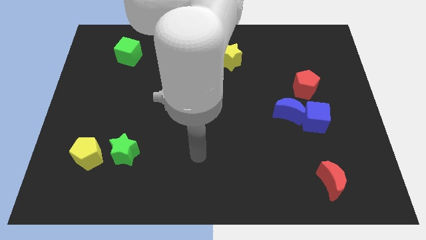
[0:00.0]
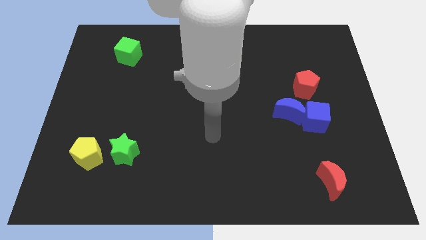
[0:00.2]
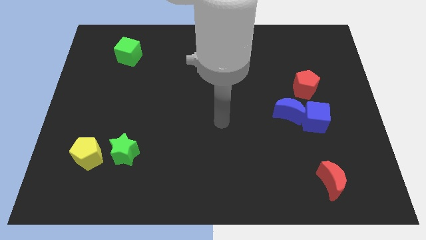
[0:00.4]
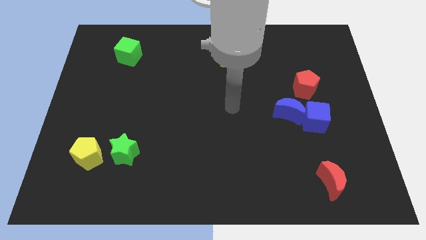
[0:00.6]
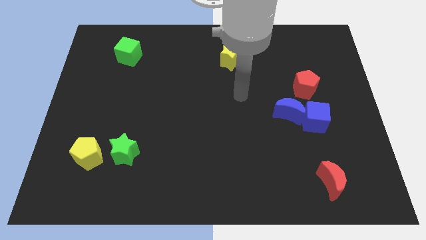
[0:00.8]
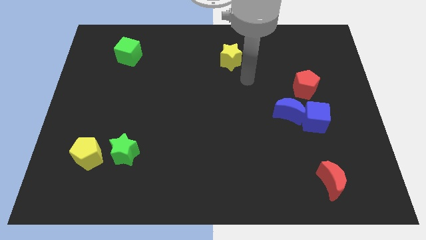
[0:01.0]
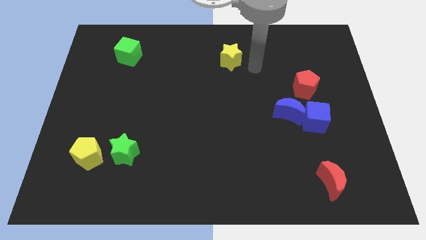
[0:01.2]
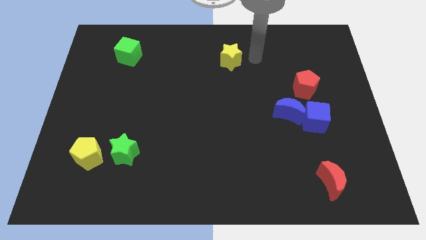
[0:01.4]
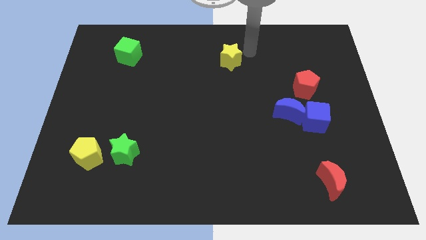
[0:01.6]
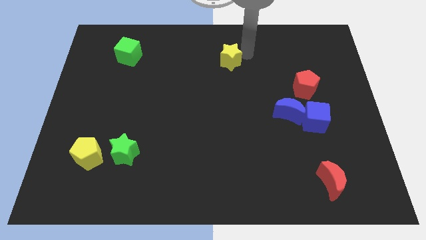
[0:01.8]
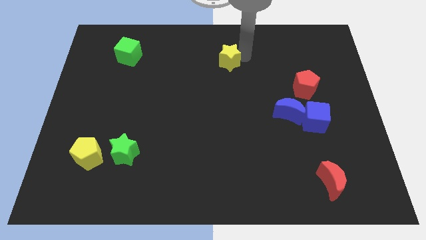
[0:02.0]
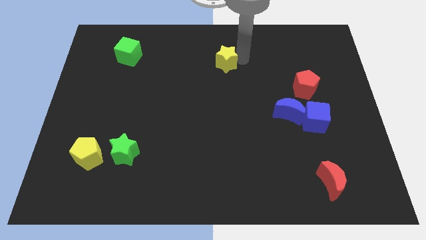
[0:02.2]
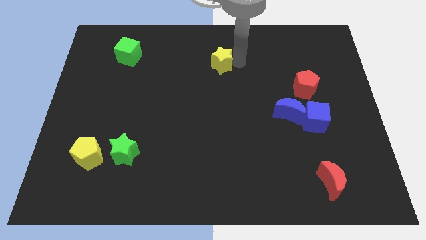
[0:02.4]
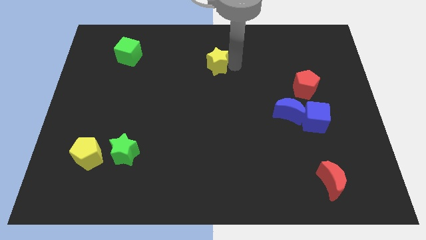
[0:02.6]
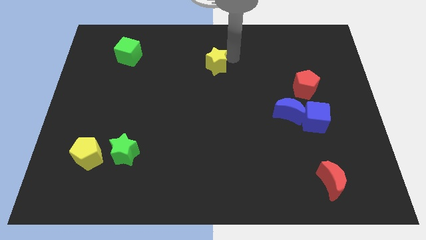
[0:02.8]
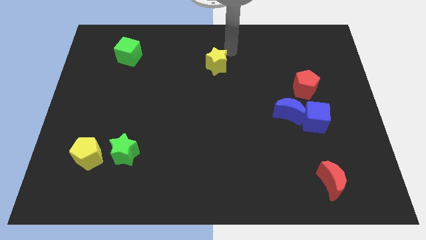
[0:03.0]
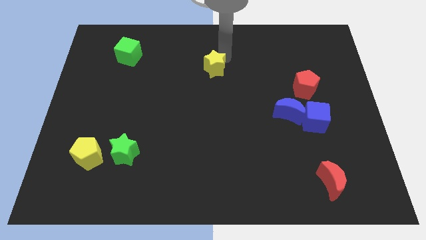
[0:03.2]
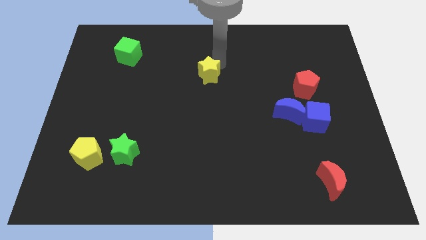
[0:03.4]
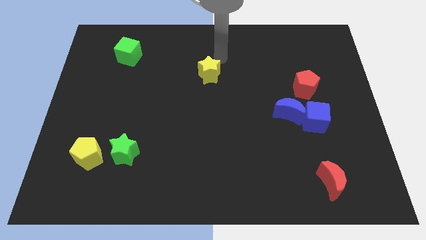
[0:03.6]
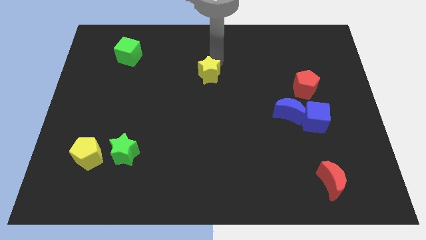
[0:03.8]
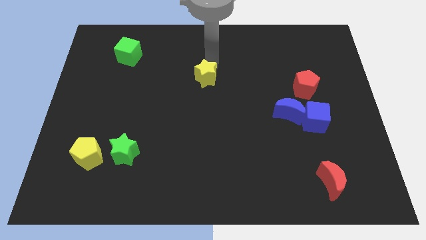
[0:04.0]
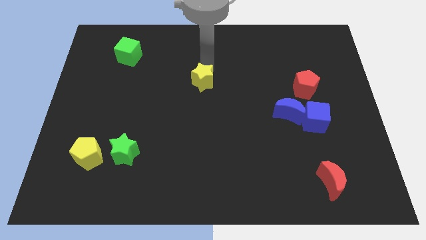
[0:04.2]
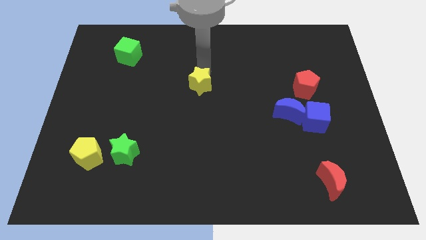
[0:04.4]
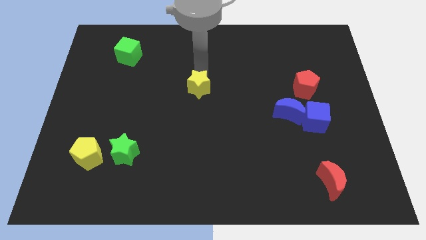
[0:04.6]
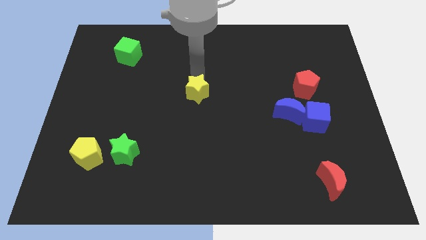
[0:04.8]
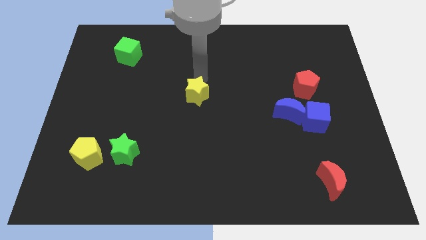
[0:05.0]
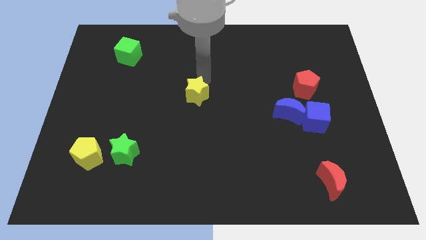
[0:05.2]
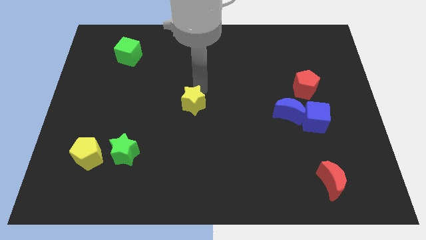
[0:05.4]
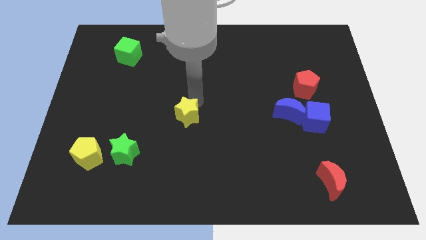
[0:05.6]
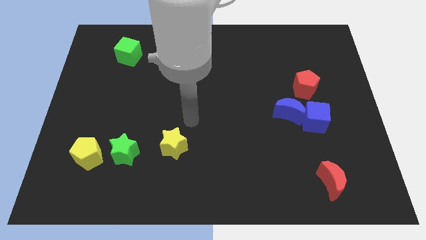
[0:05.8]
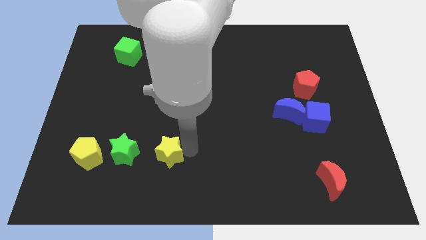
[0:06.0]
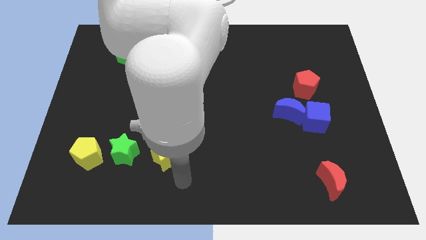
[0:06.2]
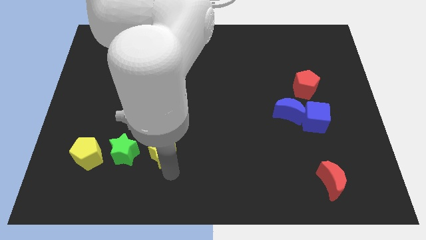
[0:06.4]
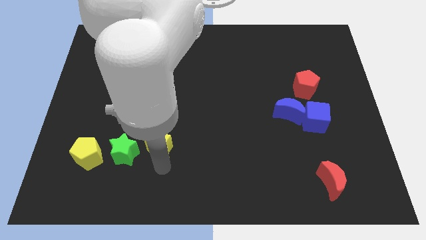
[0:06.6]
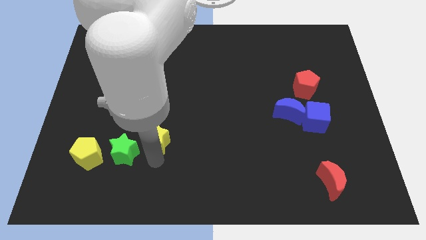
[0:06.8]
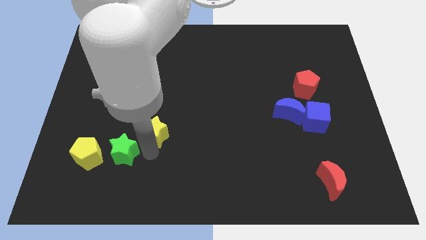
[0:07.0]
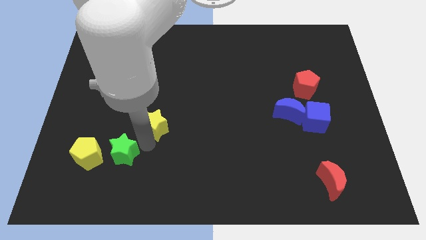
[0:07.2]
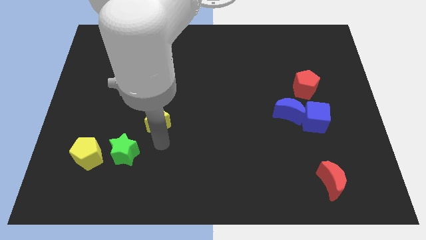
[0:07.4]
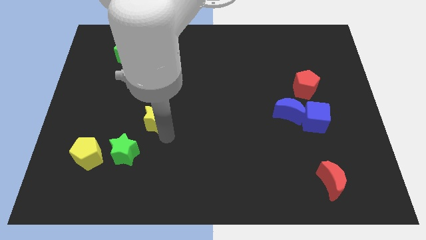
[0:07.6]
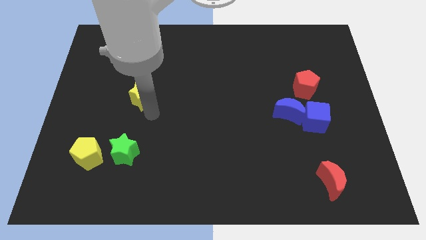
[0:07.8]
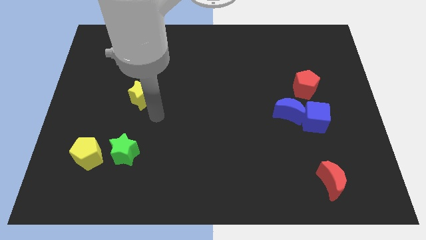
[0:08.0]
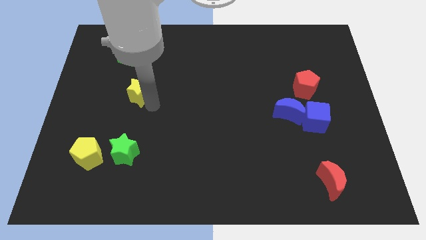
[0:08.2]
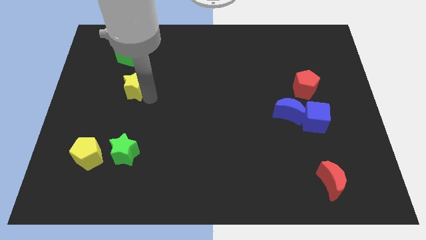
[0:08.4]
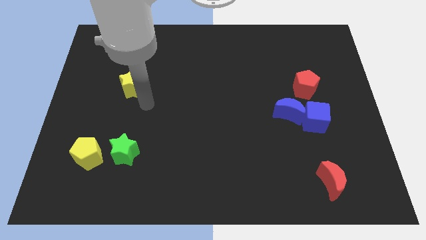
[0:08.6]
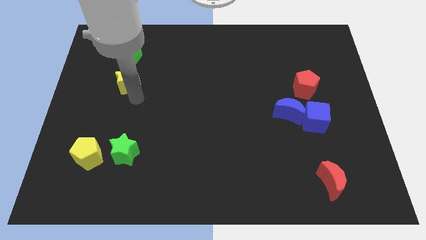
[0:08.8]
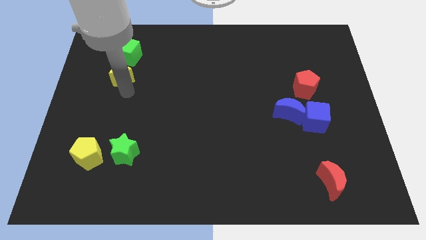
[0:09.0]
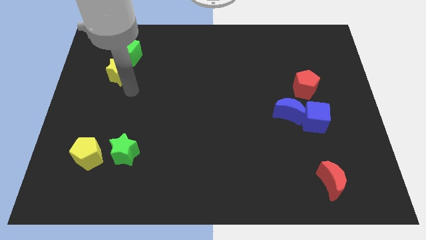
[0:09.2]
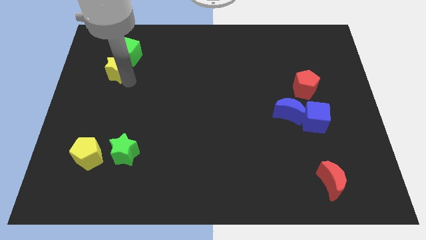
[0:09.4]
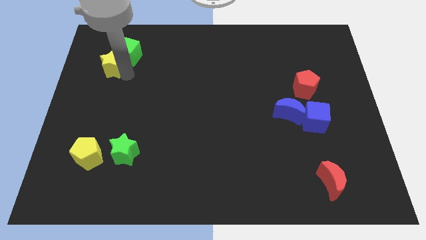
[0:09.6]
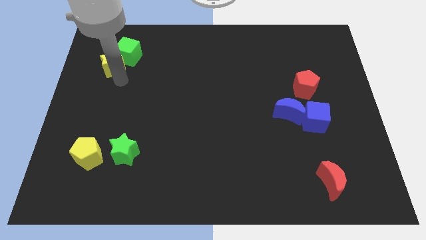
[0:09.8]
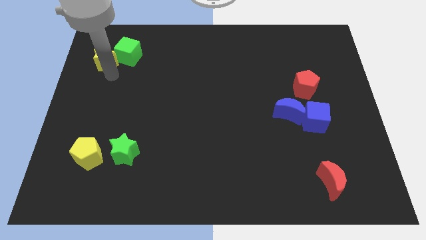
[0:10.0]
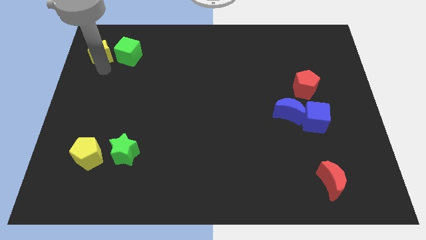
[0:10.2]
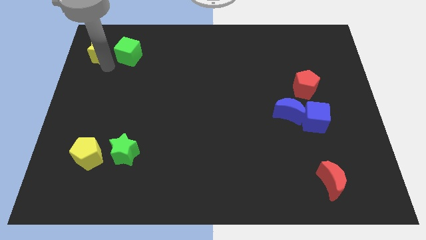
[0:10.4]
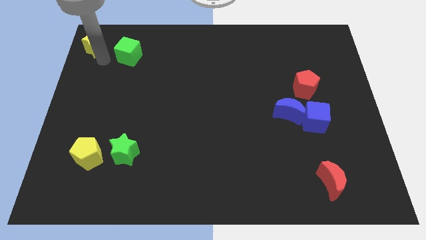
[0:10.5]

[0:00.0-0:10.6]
push the yellow star to the upper left corner

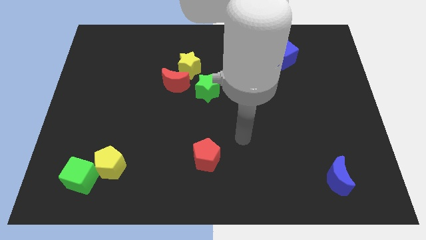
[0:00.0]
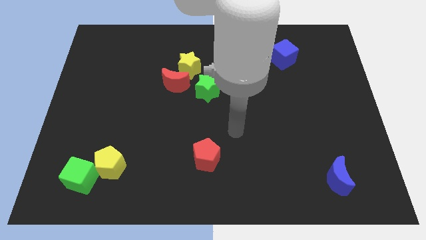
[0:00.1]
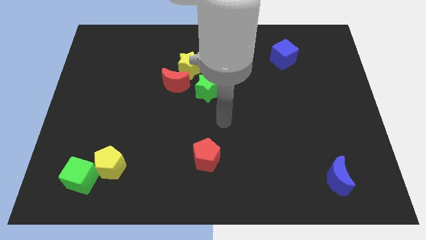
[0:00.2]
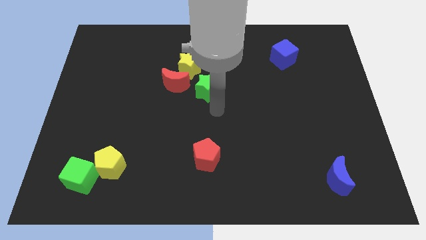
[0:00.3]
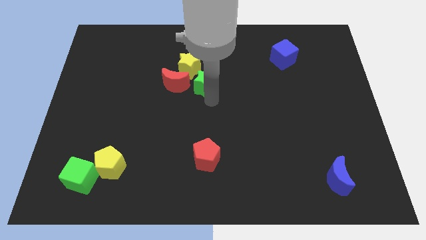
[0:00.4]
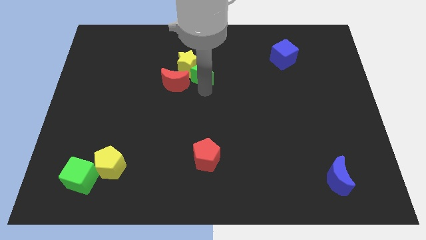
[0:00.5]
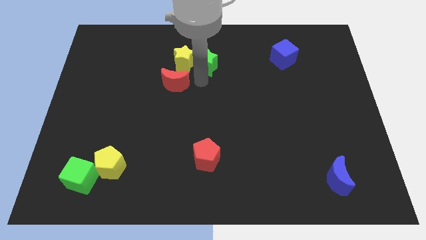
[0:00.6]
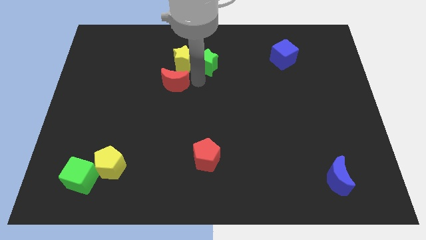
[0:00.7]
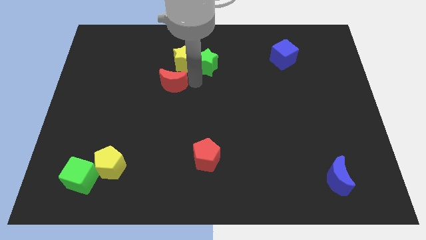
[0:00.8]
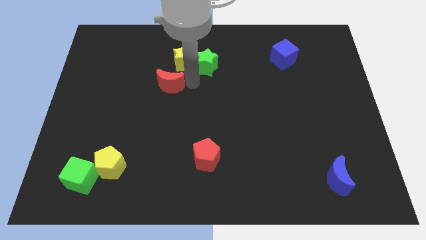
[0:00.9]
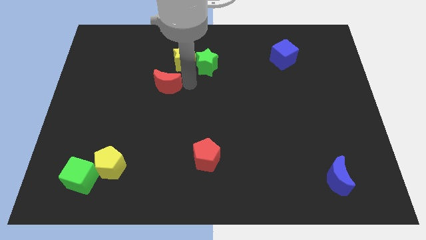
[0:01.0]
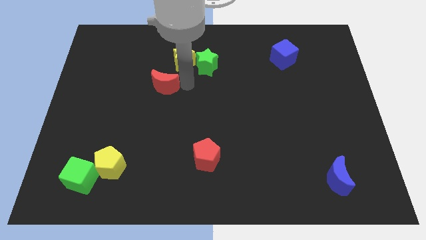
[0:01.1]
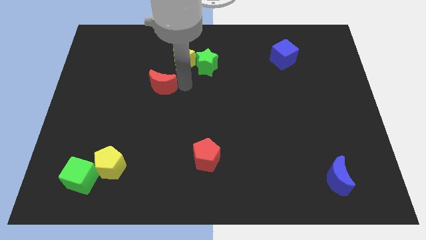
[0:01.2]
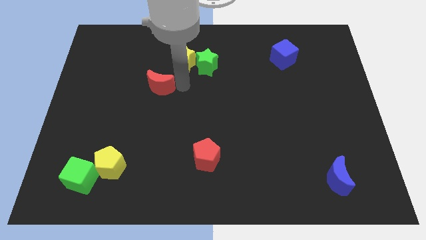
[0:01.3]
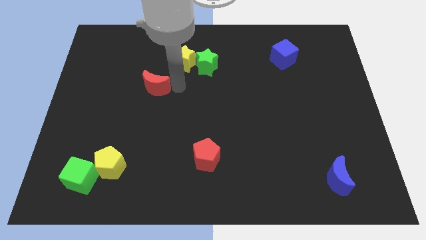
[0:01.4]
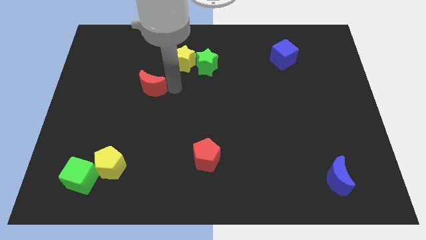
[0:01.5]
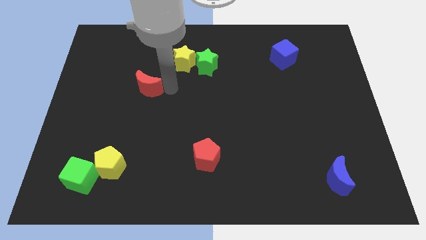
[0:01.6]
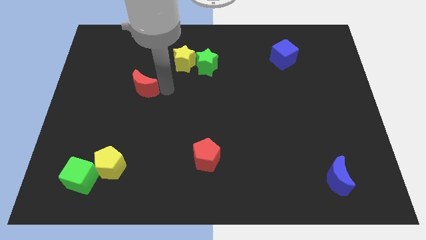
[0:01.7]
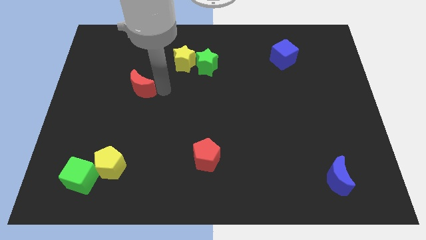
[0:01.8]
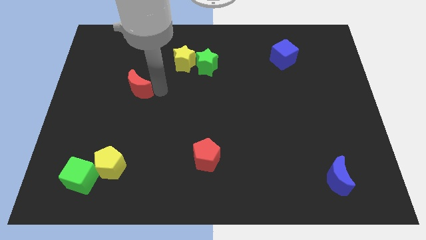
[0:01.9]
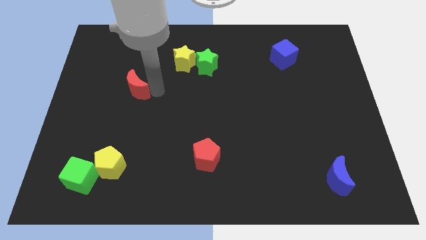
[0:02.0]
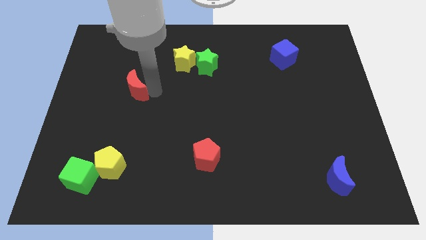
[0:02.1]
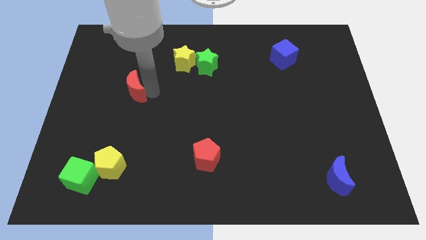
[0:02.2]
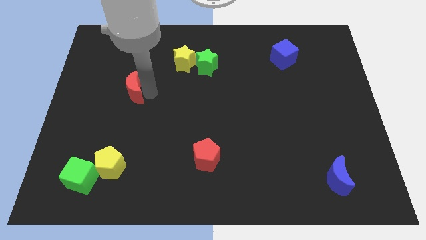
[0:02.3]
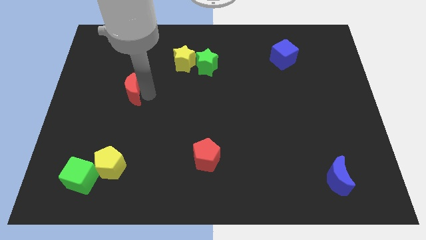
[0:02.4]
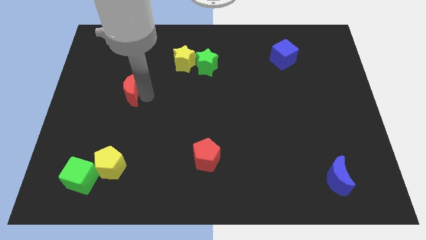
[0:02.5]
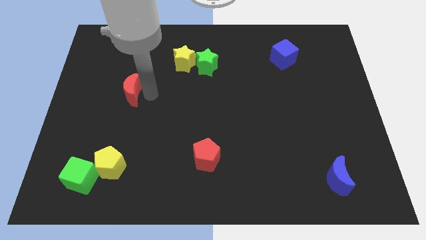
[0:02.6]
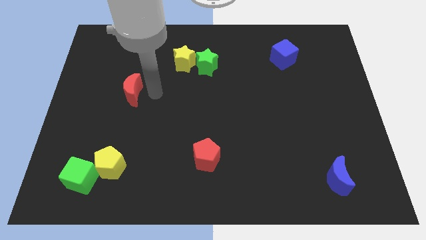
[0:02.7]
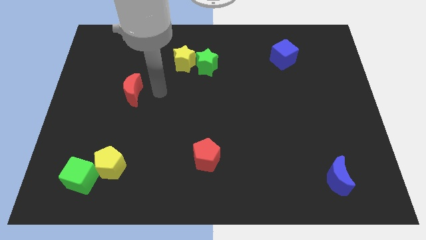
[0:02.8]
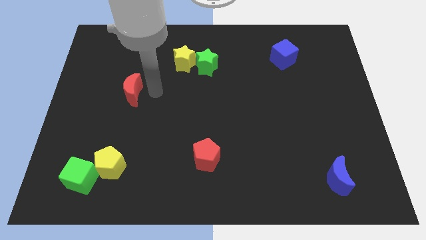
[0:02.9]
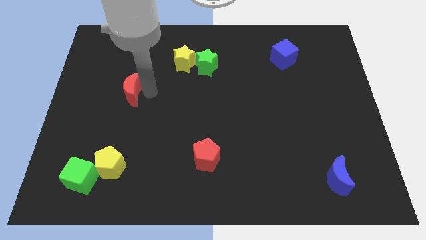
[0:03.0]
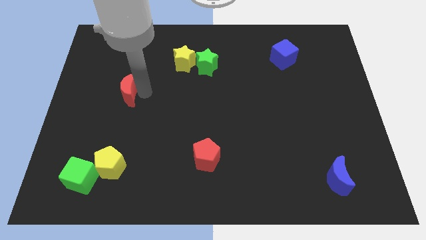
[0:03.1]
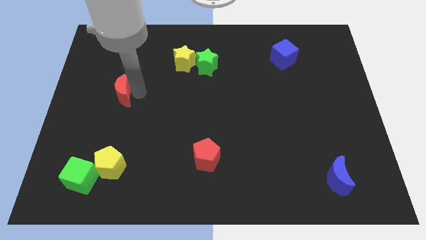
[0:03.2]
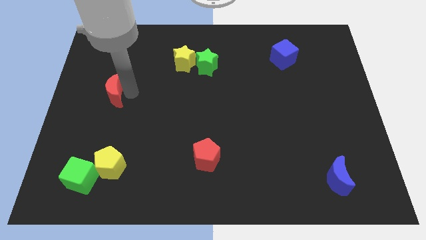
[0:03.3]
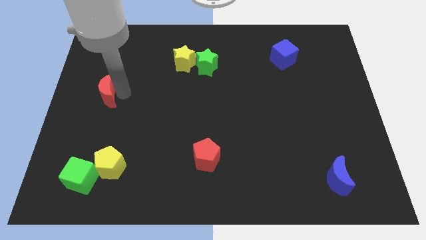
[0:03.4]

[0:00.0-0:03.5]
move the red moon to the center left
